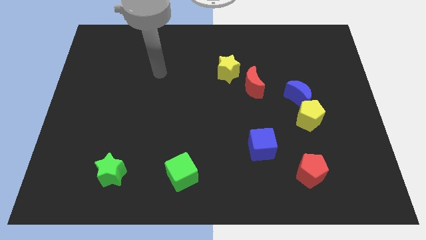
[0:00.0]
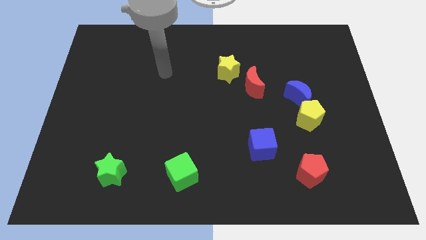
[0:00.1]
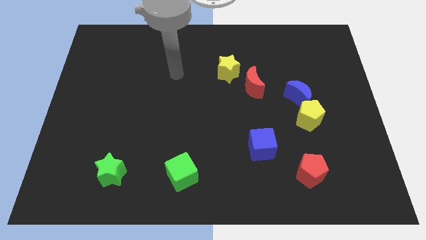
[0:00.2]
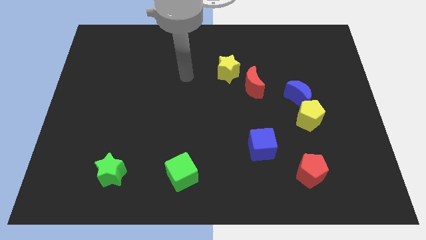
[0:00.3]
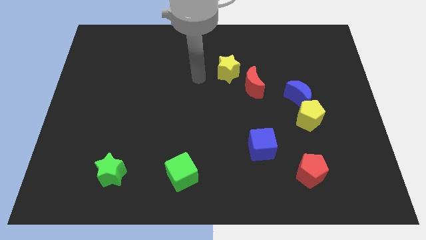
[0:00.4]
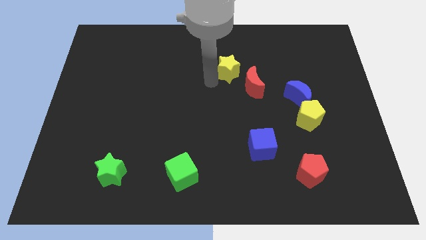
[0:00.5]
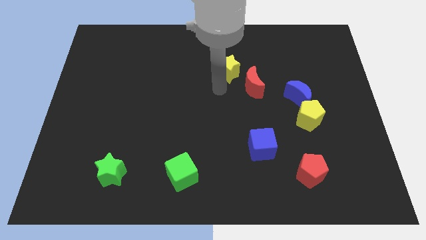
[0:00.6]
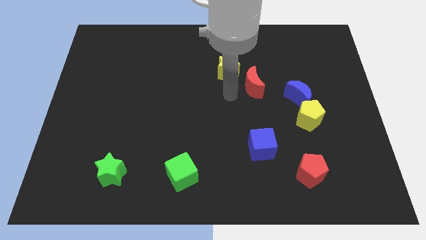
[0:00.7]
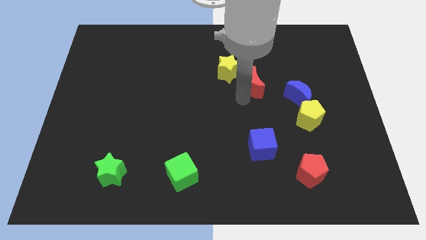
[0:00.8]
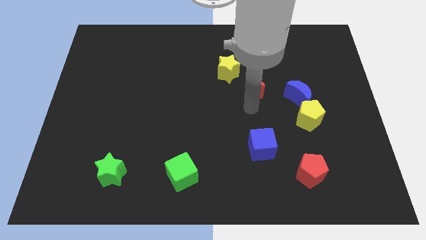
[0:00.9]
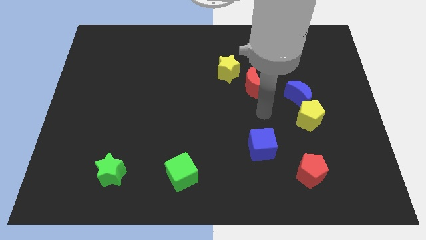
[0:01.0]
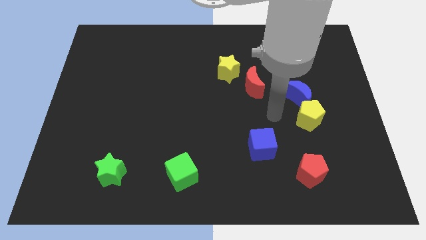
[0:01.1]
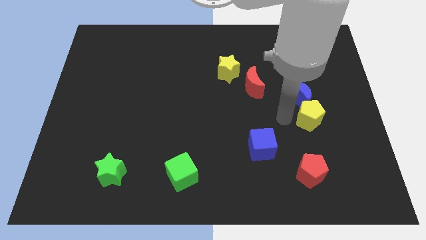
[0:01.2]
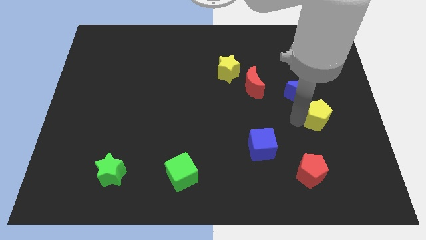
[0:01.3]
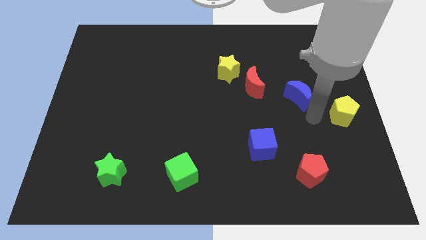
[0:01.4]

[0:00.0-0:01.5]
pull the blue moon apart from the yellow pentagon

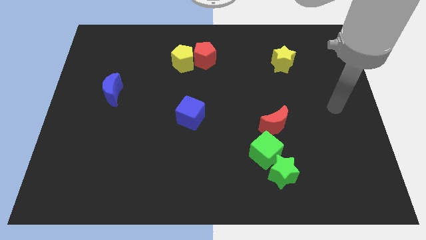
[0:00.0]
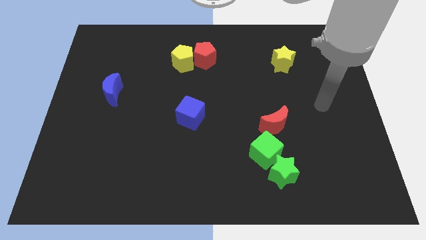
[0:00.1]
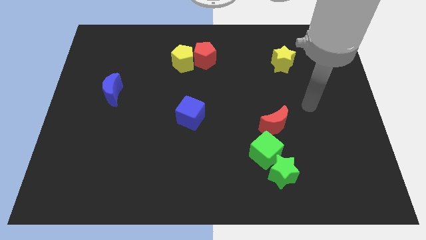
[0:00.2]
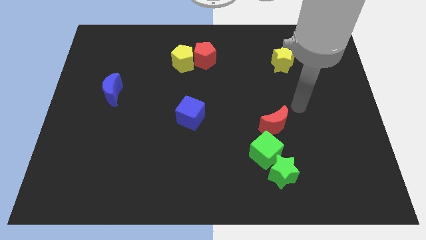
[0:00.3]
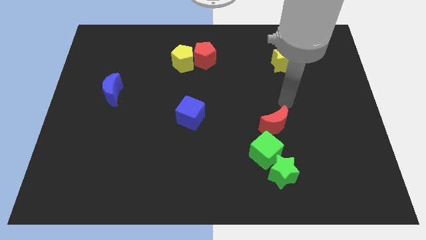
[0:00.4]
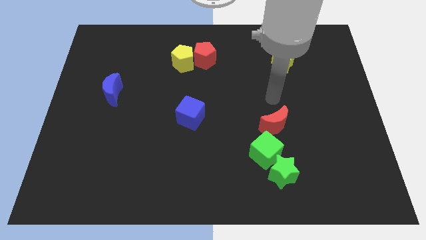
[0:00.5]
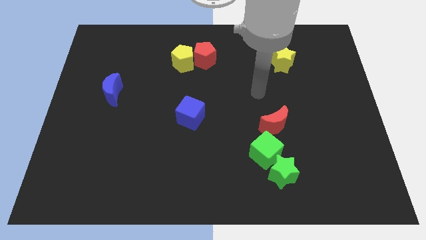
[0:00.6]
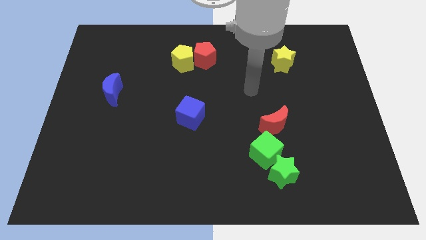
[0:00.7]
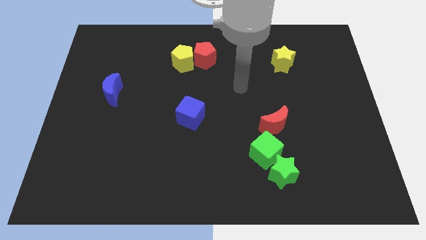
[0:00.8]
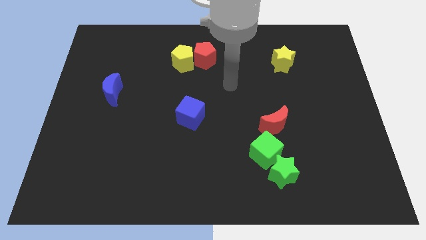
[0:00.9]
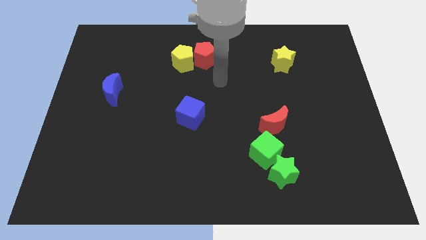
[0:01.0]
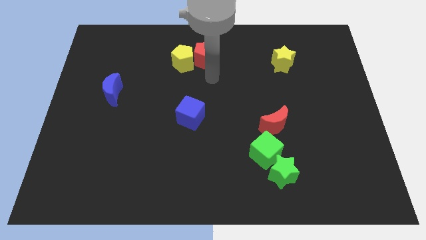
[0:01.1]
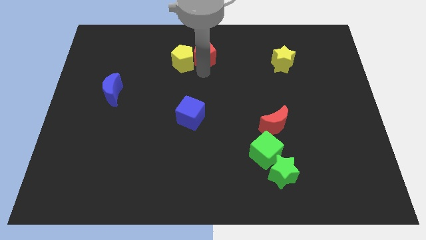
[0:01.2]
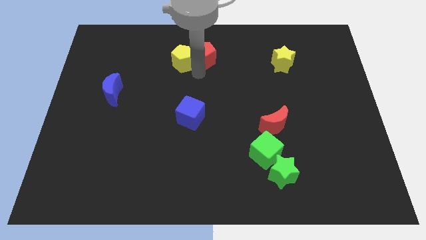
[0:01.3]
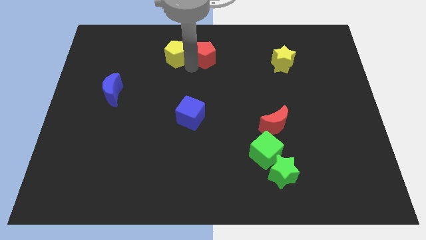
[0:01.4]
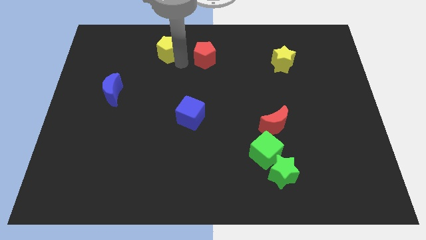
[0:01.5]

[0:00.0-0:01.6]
separate the red pentagon from the yellow pentagon

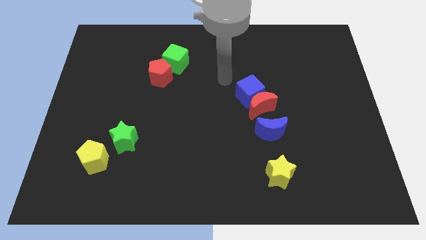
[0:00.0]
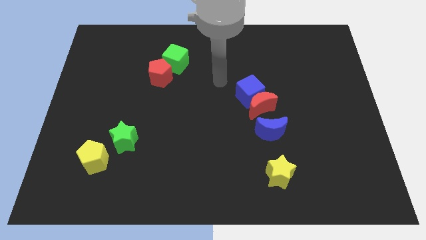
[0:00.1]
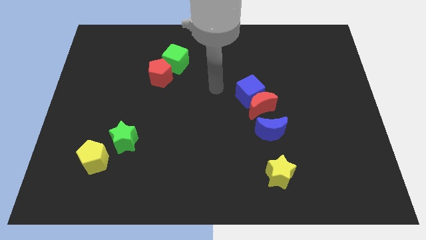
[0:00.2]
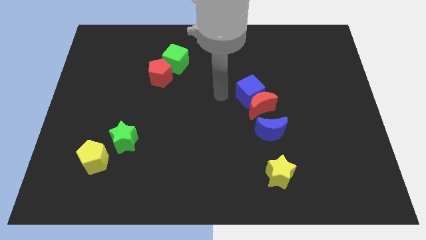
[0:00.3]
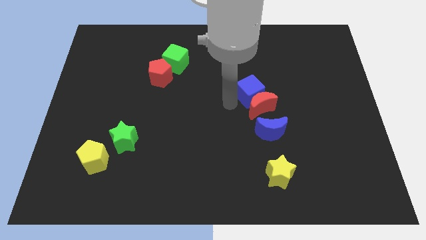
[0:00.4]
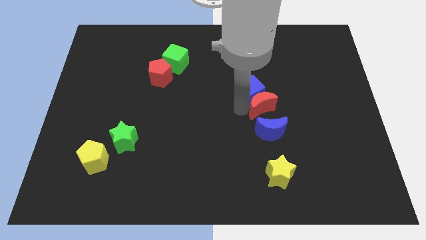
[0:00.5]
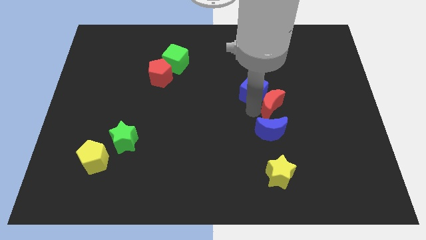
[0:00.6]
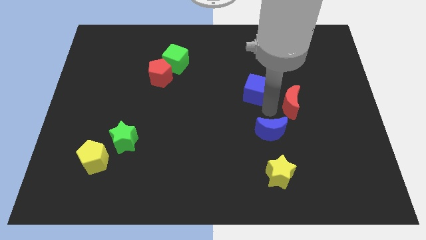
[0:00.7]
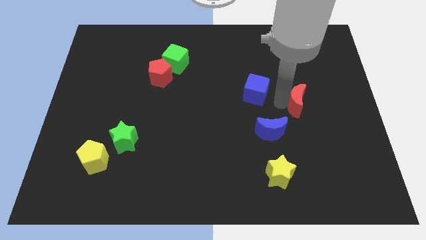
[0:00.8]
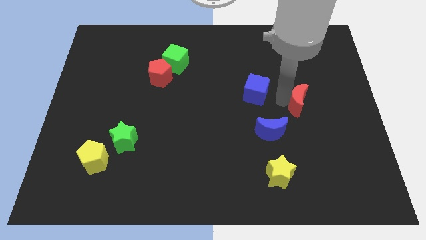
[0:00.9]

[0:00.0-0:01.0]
move the blue cube away from the red moon

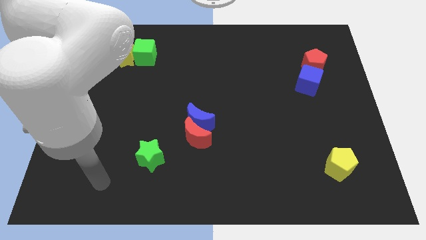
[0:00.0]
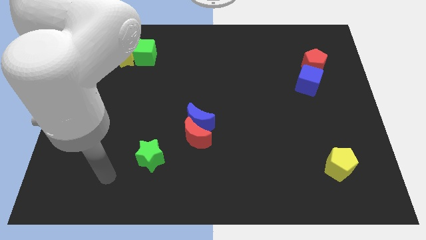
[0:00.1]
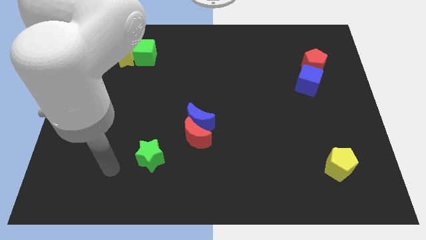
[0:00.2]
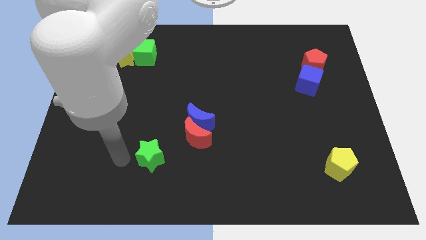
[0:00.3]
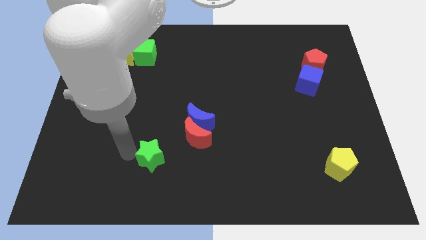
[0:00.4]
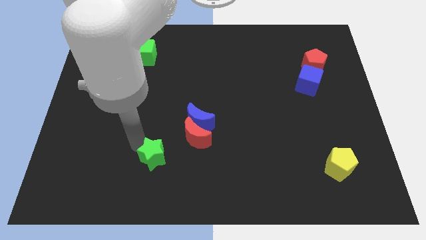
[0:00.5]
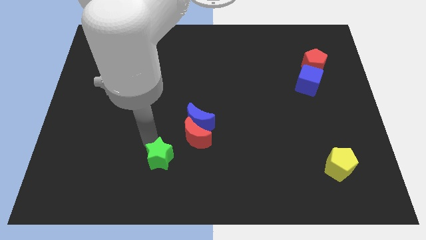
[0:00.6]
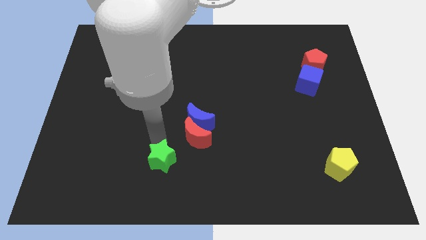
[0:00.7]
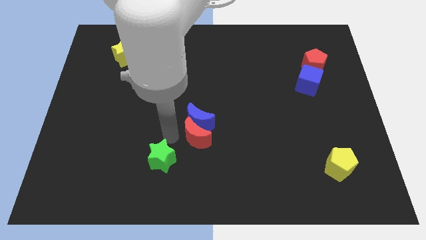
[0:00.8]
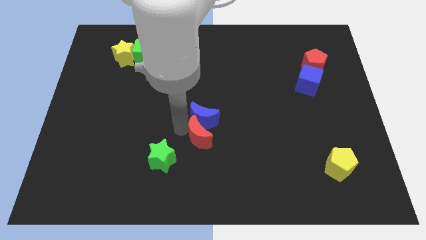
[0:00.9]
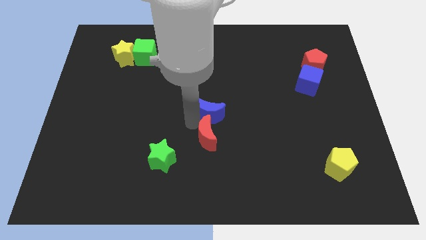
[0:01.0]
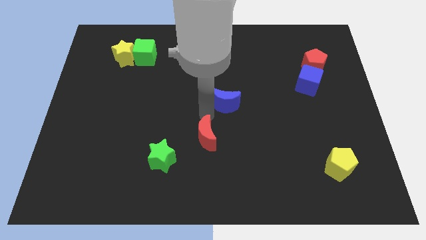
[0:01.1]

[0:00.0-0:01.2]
separate the red moon from the blue moon

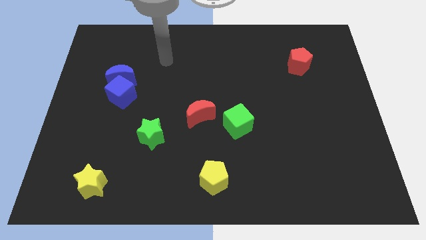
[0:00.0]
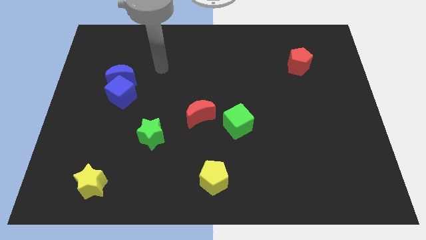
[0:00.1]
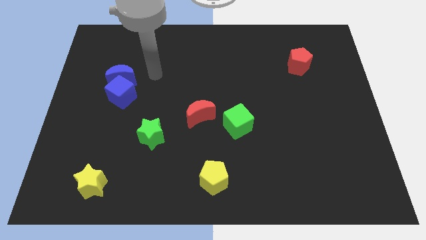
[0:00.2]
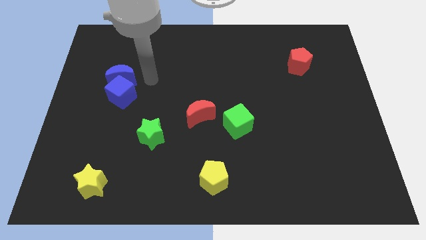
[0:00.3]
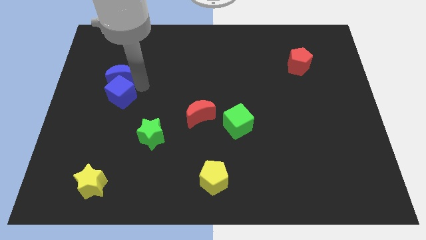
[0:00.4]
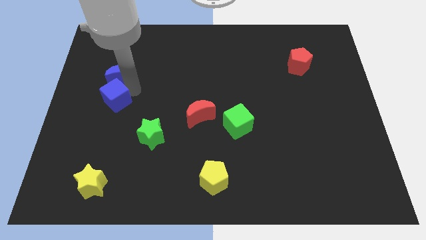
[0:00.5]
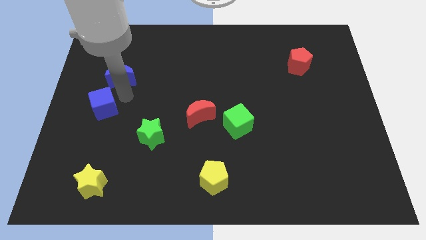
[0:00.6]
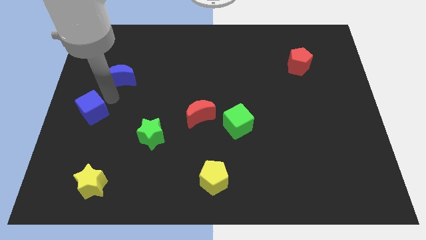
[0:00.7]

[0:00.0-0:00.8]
move the blue moon away from the blue cube

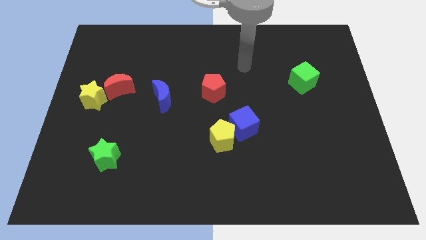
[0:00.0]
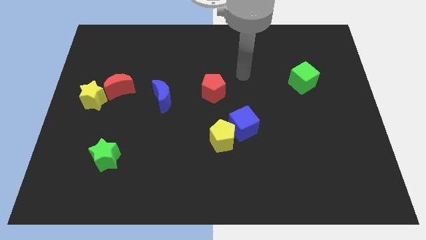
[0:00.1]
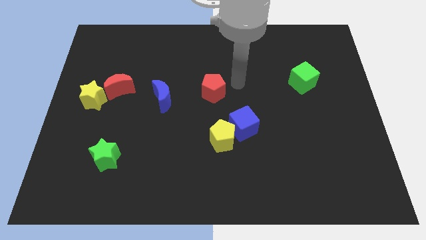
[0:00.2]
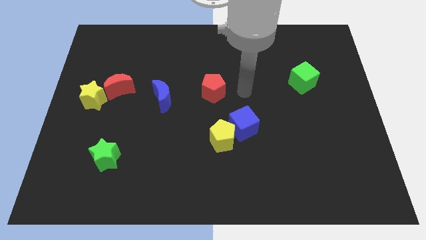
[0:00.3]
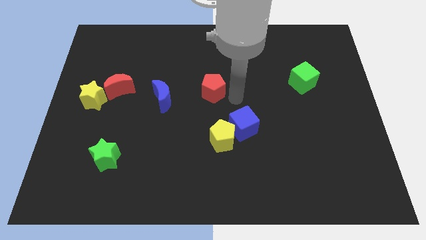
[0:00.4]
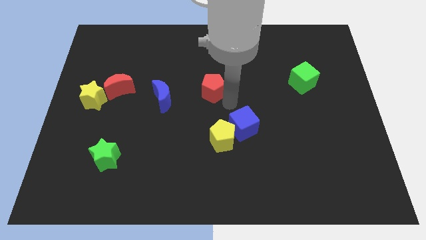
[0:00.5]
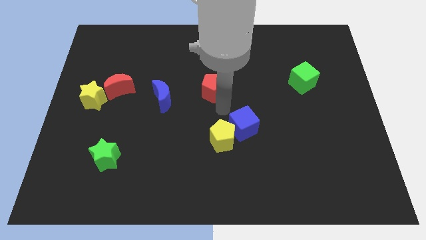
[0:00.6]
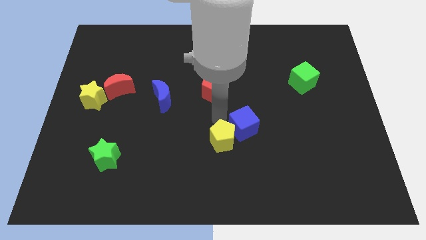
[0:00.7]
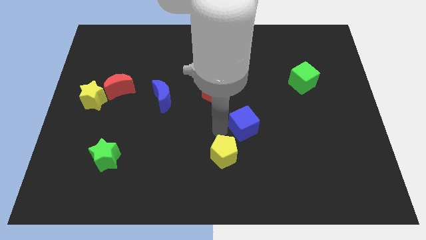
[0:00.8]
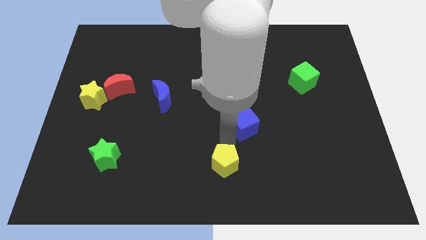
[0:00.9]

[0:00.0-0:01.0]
pull the blue cube apart from the yellow pentagon

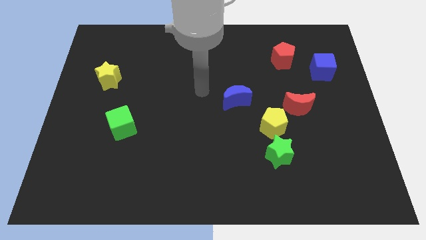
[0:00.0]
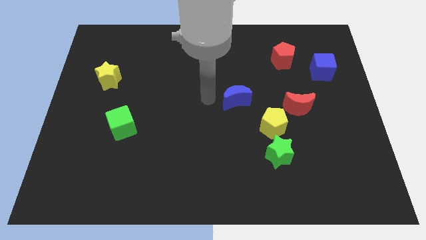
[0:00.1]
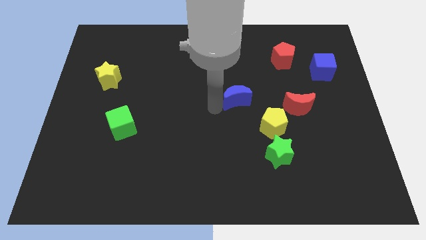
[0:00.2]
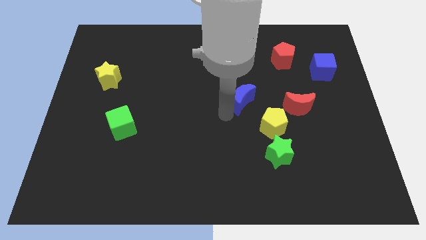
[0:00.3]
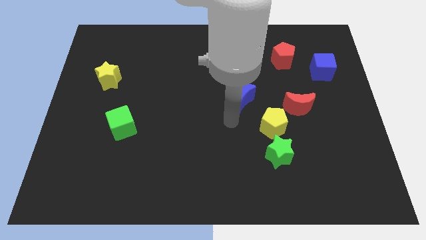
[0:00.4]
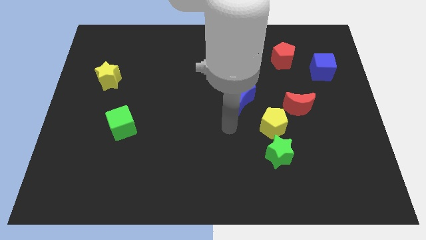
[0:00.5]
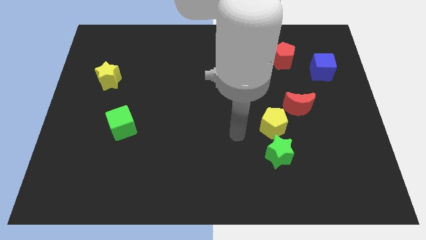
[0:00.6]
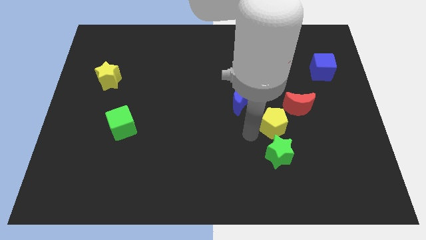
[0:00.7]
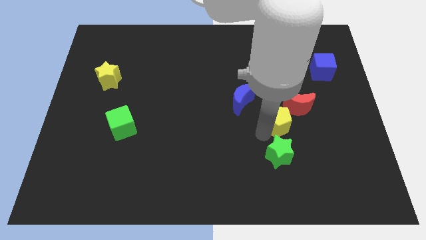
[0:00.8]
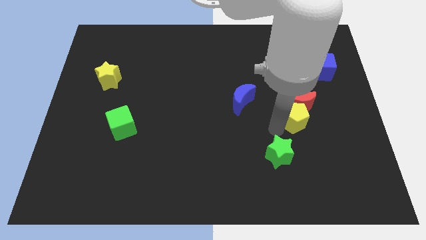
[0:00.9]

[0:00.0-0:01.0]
separate the green star from the yellow pentagon

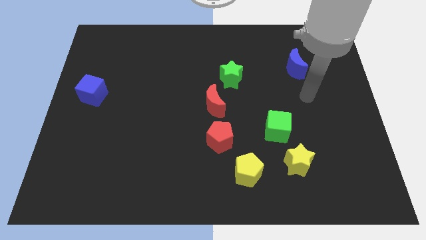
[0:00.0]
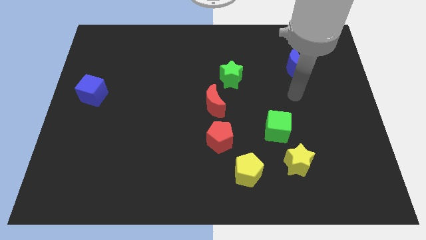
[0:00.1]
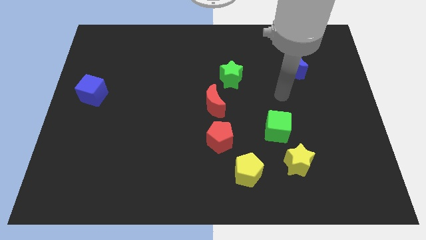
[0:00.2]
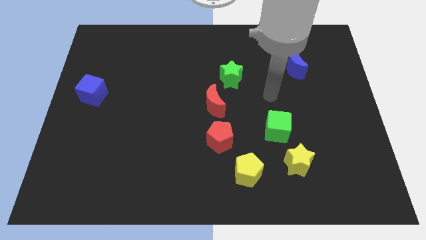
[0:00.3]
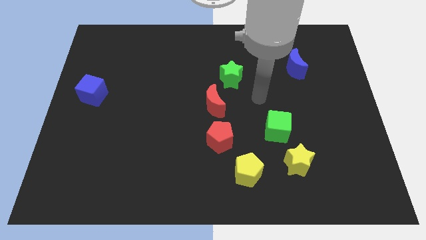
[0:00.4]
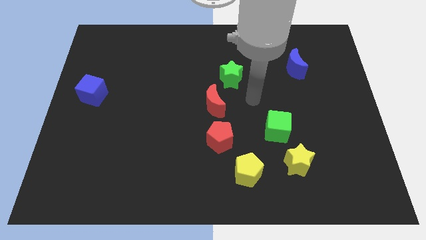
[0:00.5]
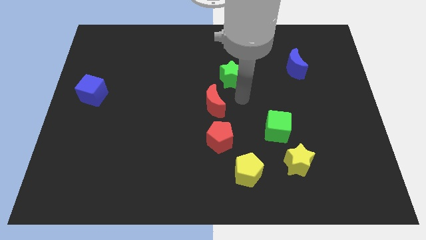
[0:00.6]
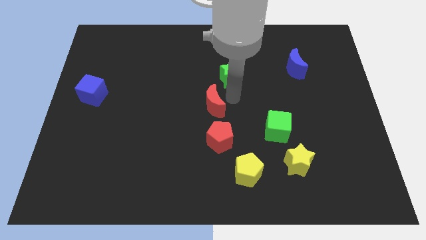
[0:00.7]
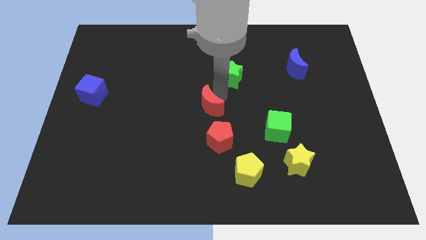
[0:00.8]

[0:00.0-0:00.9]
pull the green star apart from the red moon

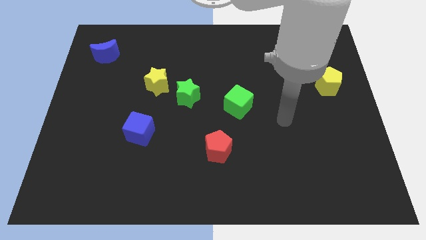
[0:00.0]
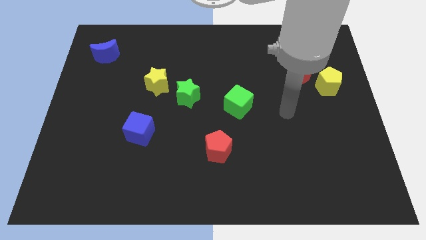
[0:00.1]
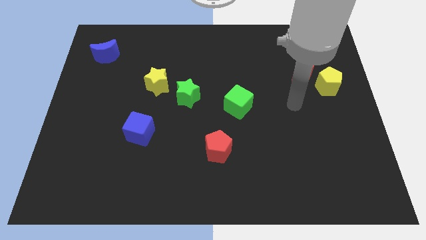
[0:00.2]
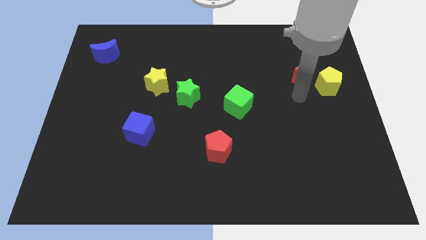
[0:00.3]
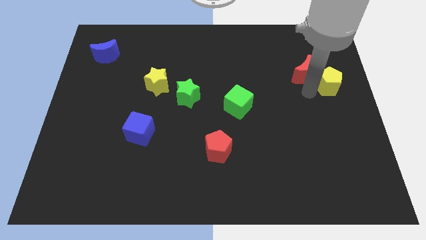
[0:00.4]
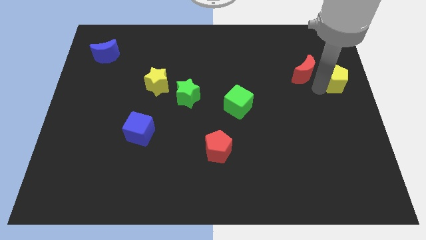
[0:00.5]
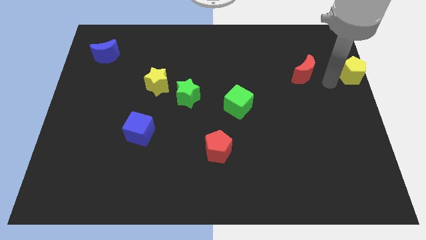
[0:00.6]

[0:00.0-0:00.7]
move the red moon away from the yellow pentagon
